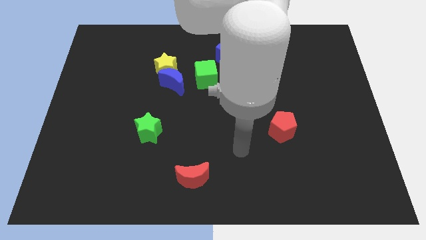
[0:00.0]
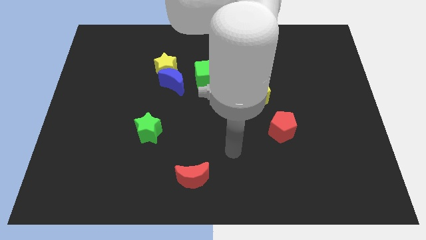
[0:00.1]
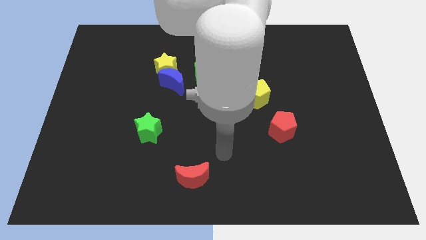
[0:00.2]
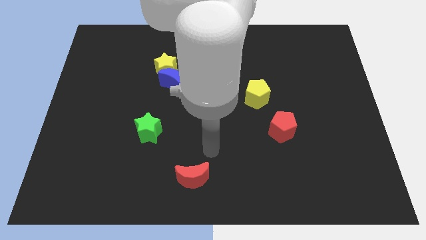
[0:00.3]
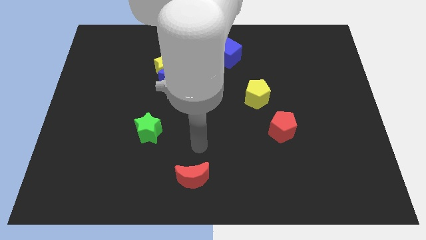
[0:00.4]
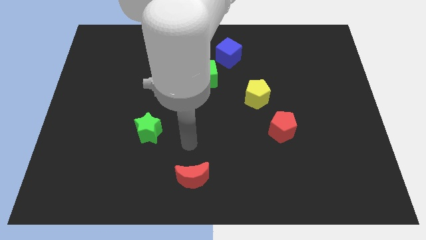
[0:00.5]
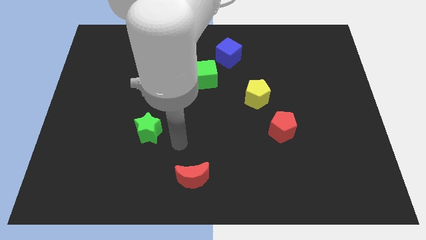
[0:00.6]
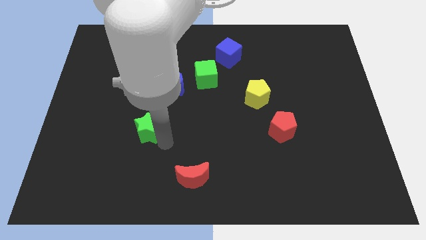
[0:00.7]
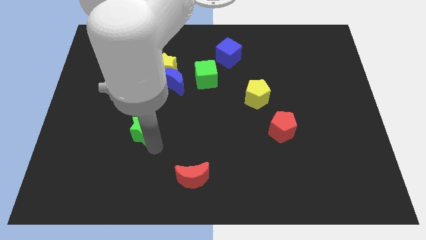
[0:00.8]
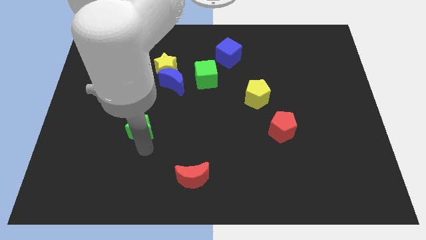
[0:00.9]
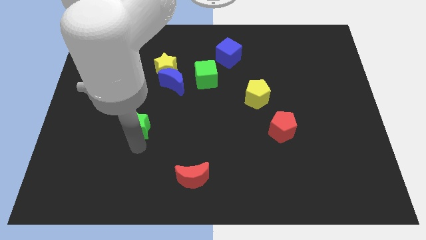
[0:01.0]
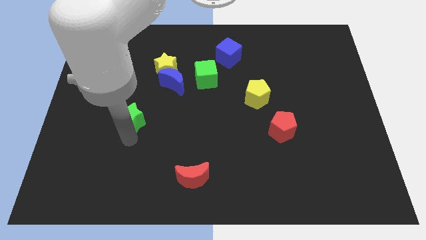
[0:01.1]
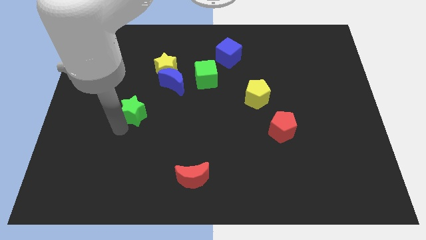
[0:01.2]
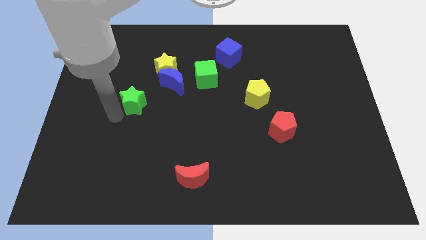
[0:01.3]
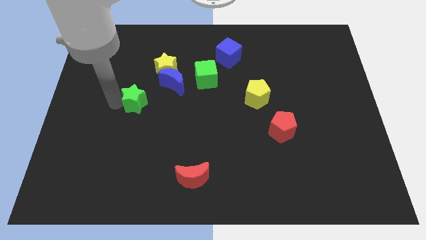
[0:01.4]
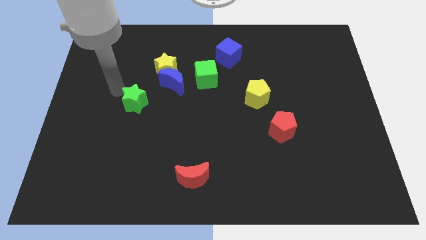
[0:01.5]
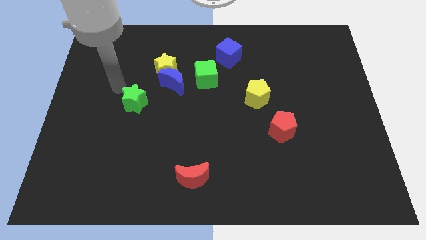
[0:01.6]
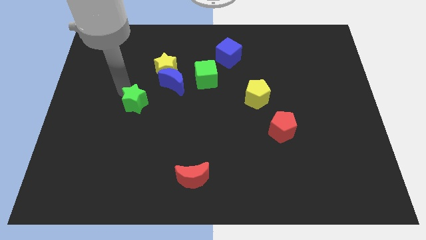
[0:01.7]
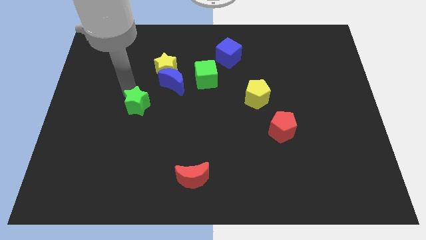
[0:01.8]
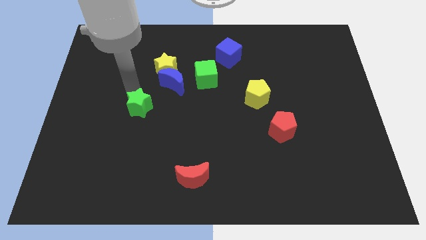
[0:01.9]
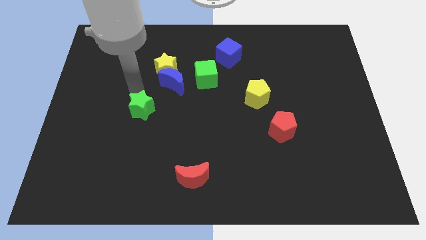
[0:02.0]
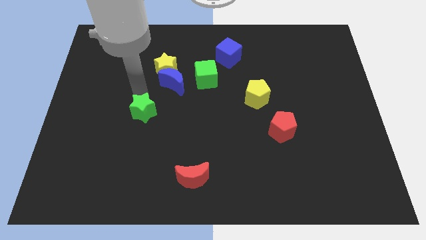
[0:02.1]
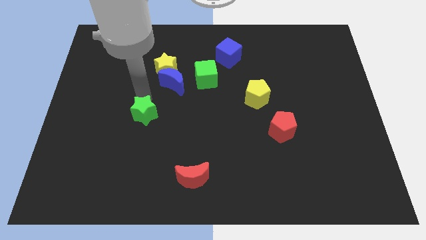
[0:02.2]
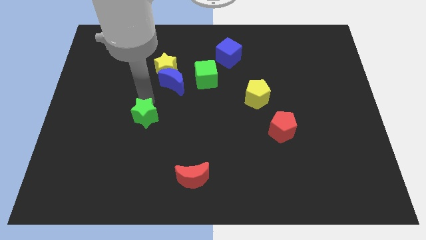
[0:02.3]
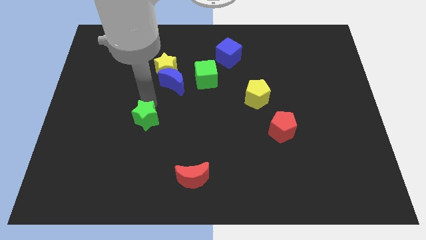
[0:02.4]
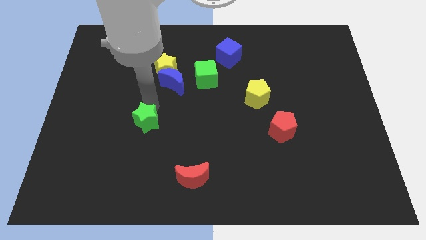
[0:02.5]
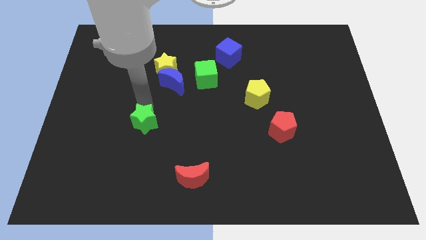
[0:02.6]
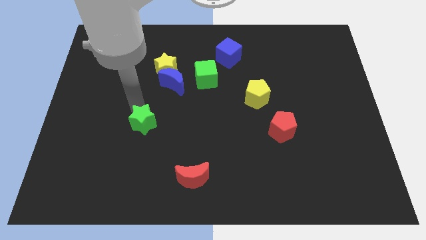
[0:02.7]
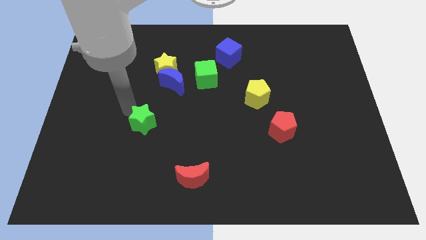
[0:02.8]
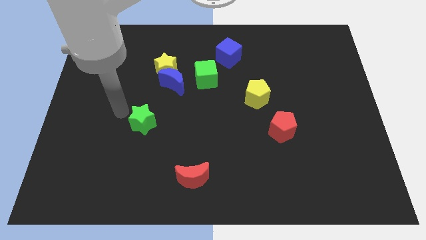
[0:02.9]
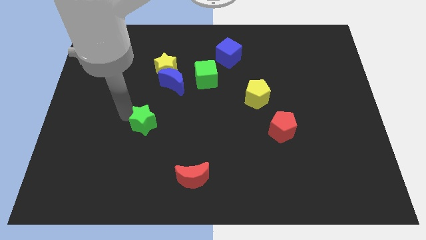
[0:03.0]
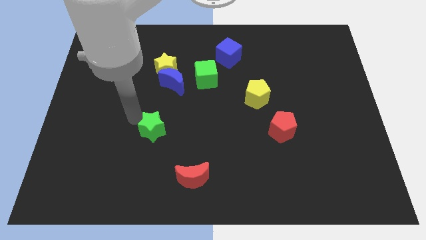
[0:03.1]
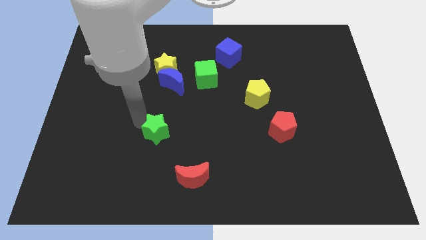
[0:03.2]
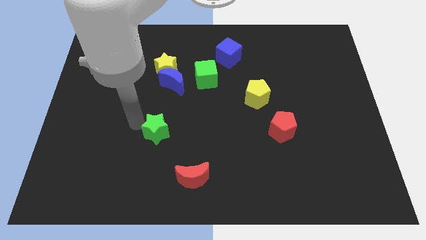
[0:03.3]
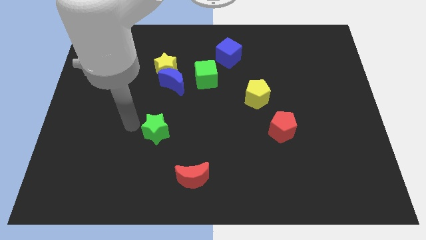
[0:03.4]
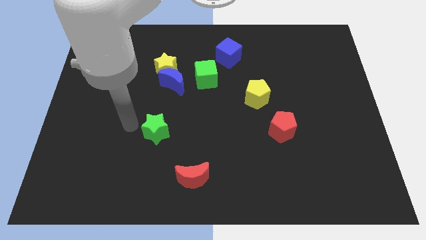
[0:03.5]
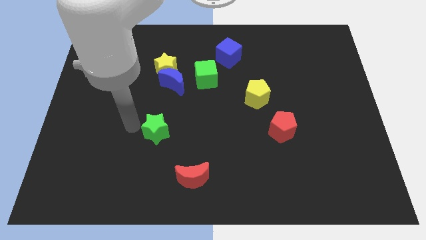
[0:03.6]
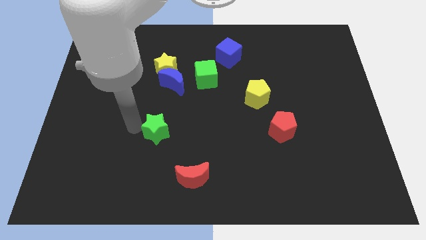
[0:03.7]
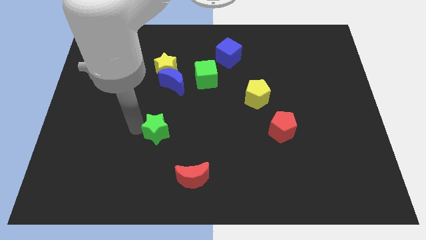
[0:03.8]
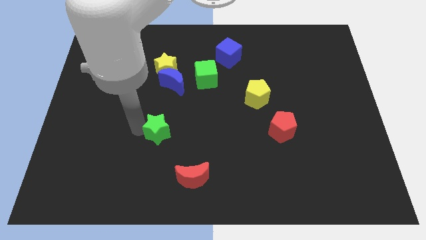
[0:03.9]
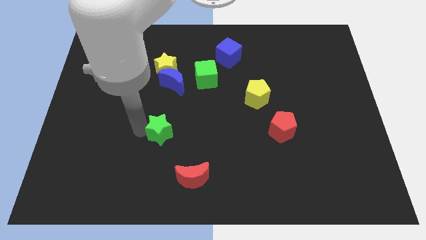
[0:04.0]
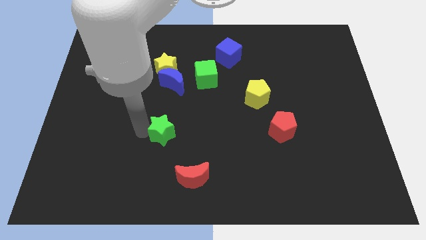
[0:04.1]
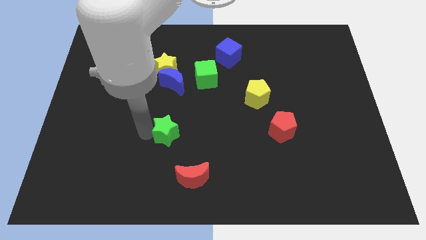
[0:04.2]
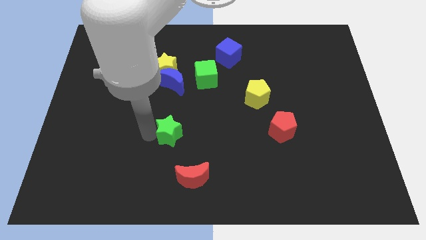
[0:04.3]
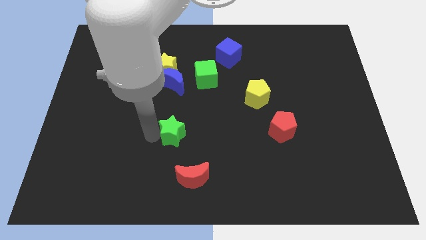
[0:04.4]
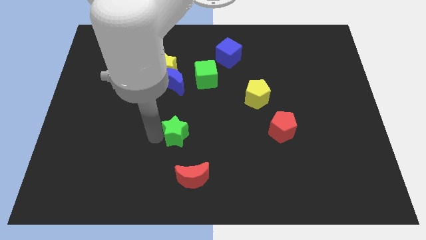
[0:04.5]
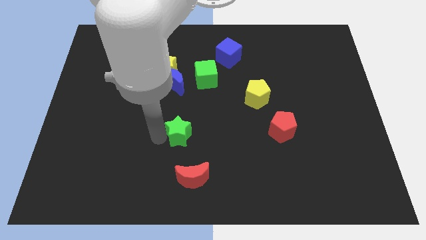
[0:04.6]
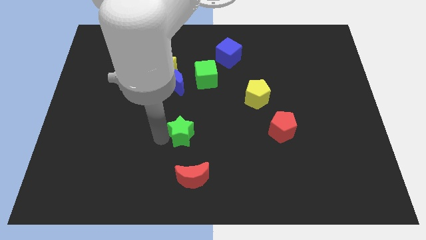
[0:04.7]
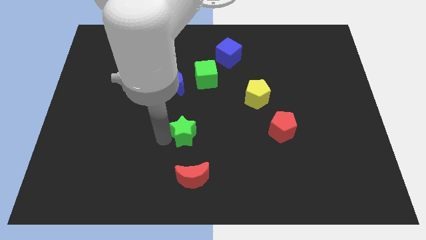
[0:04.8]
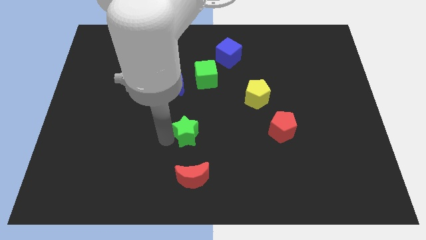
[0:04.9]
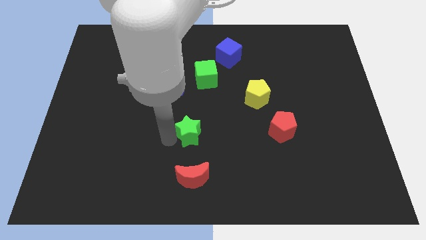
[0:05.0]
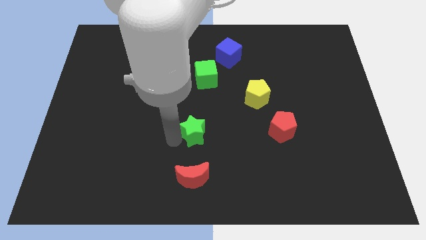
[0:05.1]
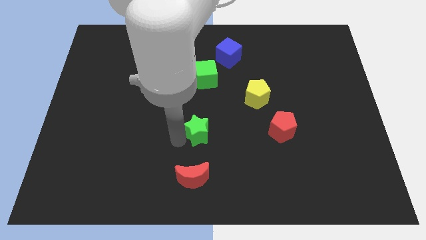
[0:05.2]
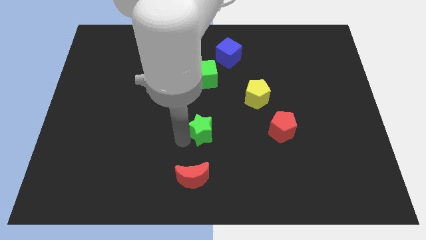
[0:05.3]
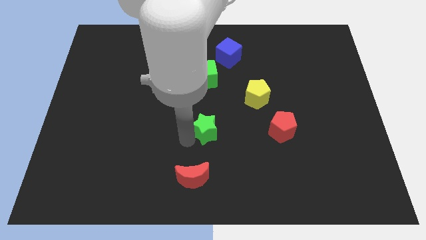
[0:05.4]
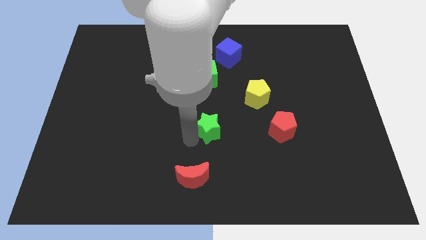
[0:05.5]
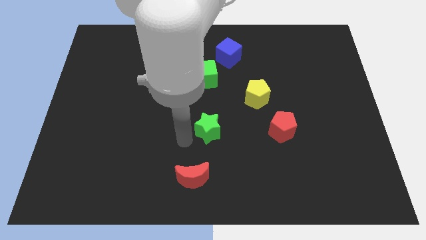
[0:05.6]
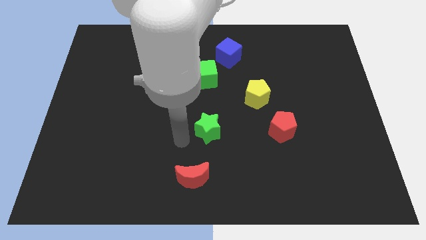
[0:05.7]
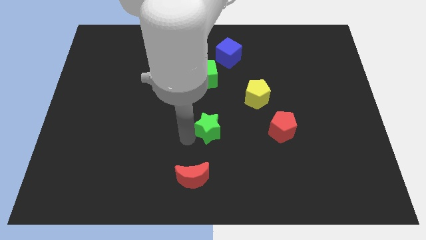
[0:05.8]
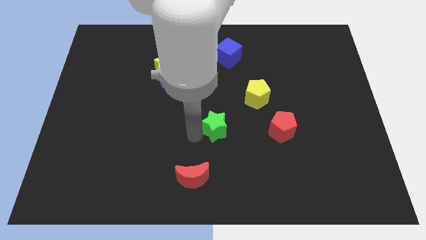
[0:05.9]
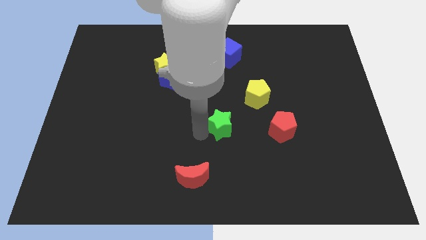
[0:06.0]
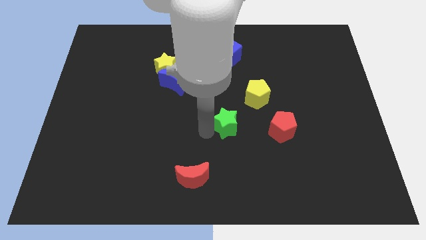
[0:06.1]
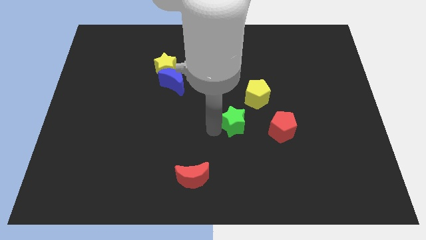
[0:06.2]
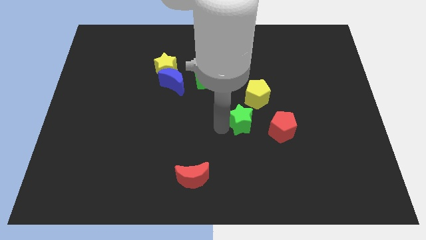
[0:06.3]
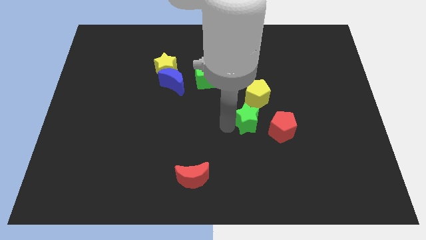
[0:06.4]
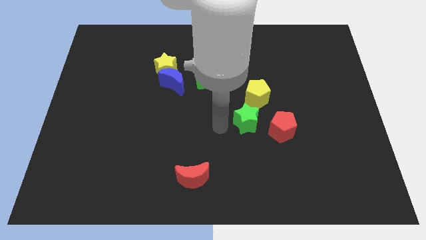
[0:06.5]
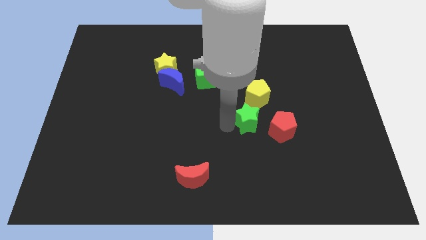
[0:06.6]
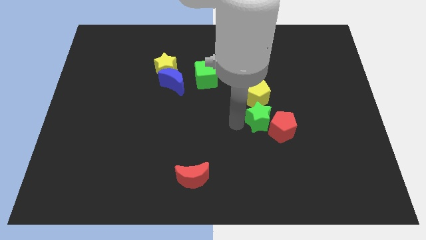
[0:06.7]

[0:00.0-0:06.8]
put the green star to the bottom right side of the yellow pentagon
